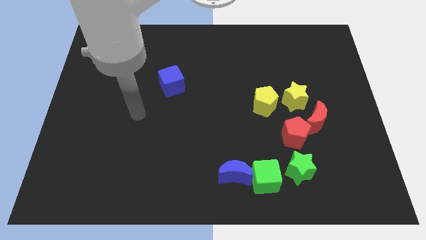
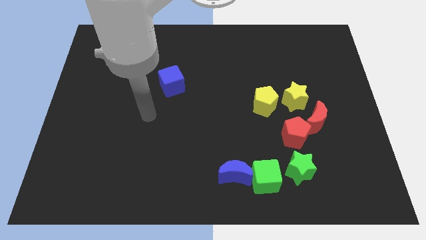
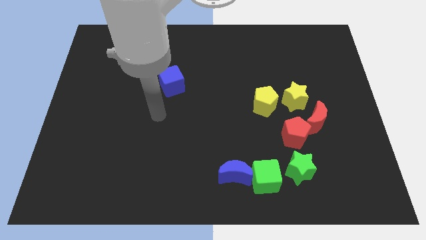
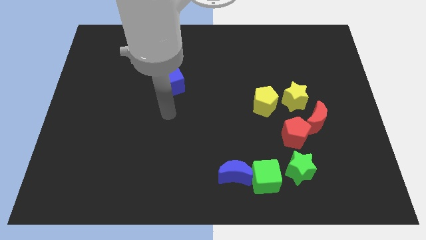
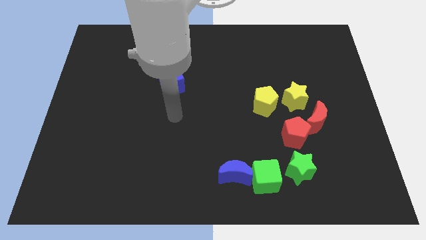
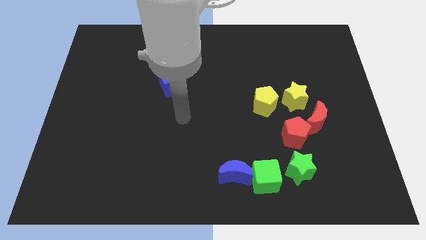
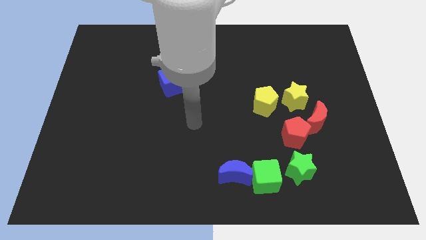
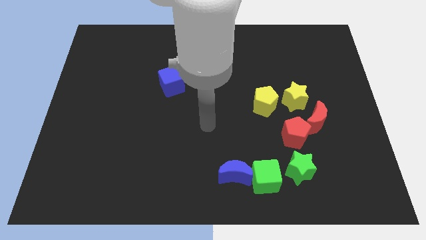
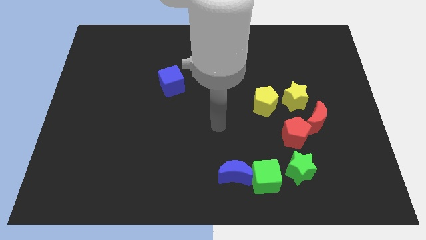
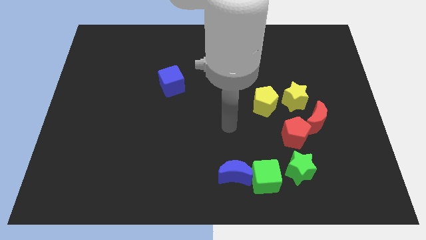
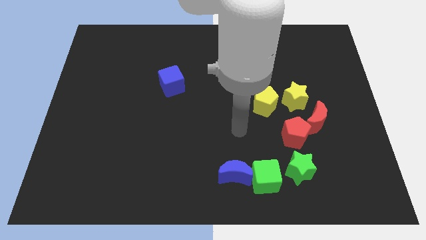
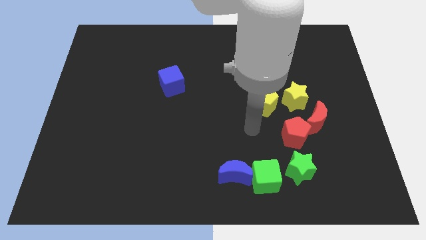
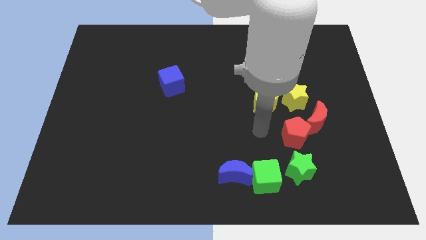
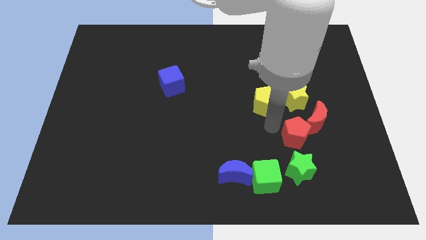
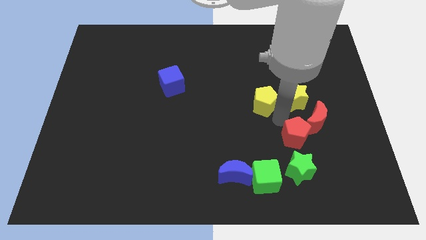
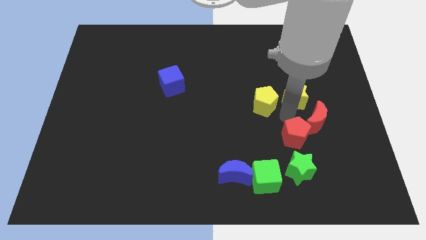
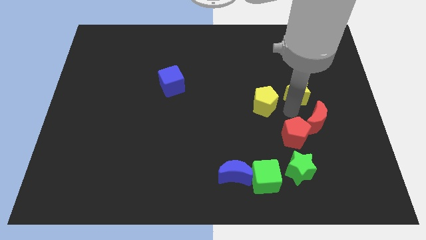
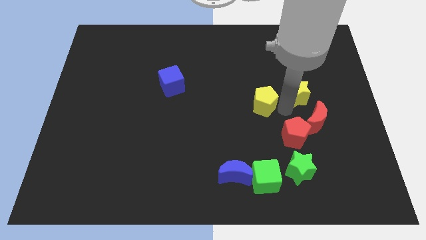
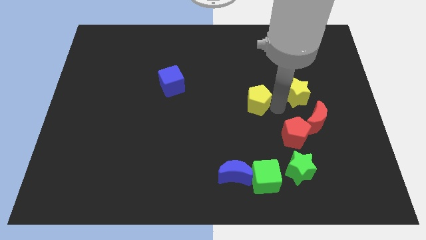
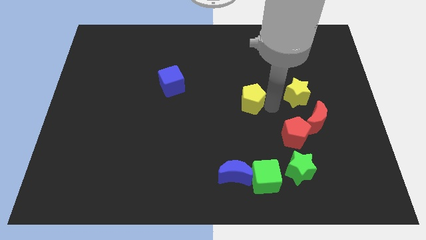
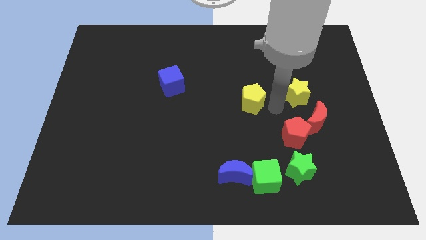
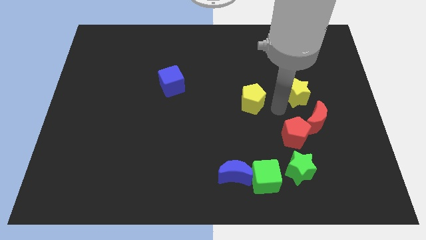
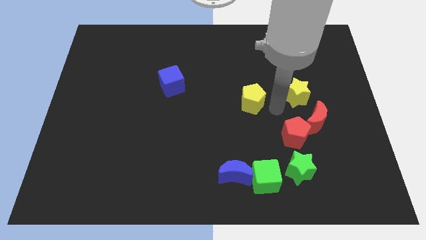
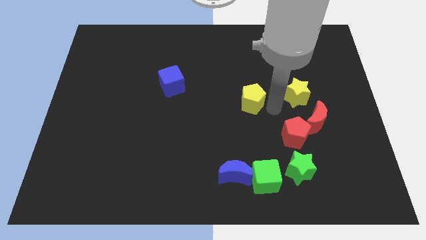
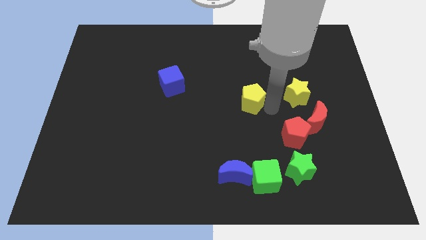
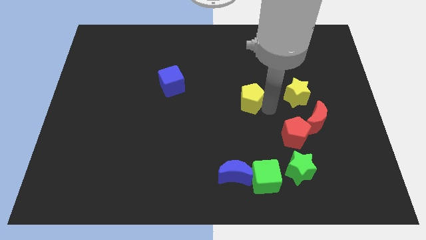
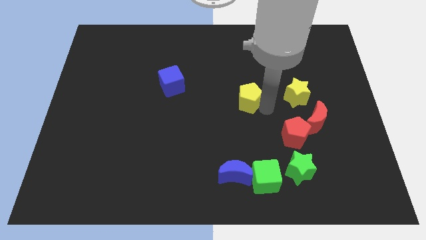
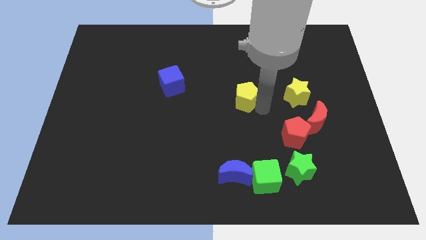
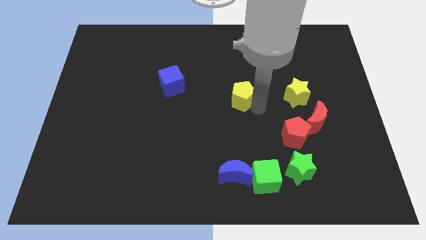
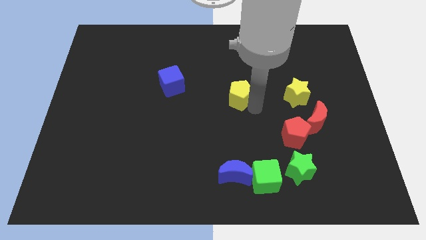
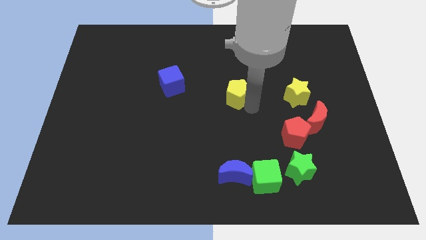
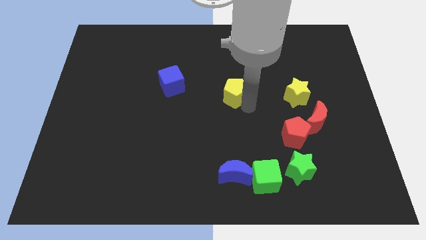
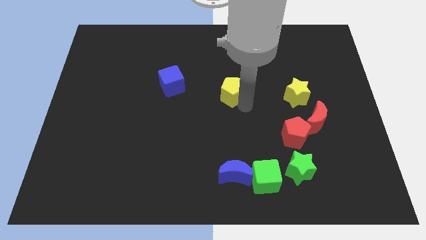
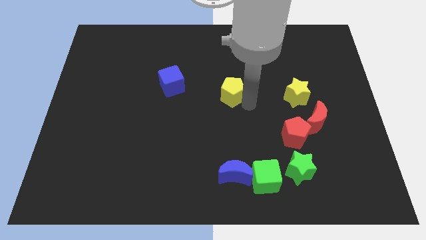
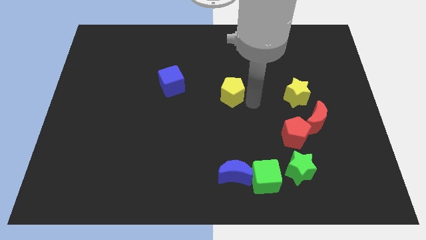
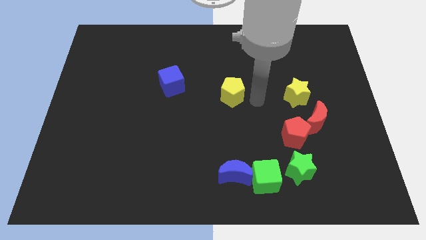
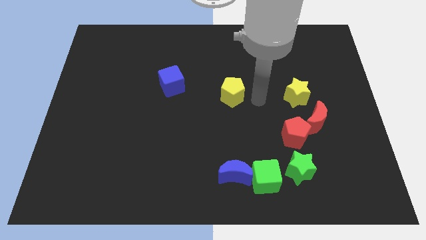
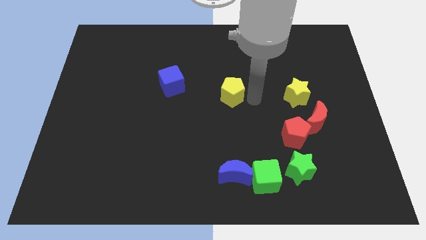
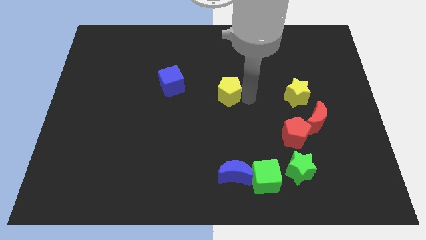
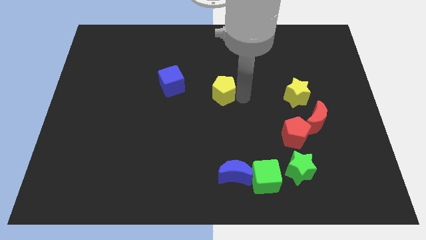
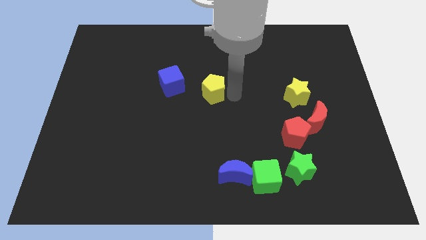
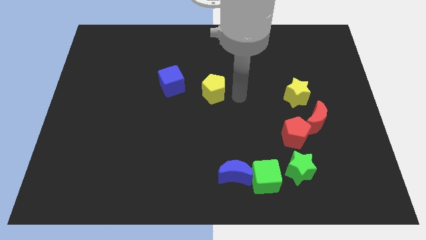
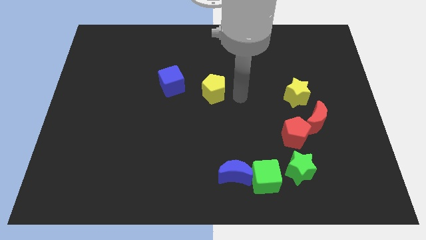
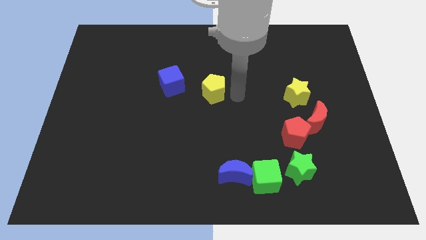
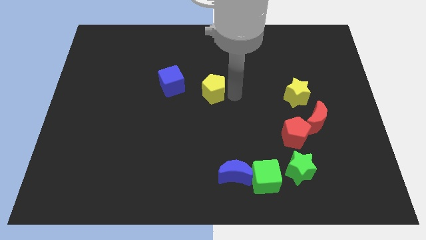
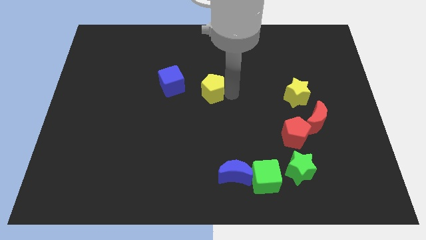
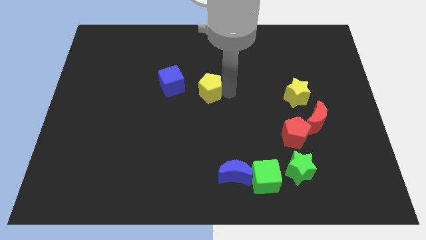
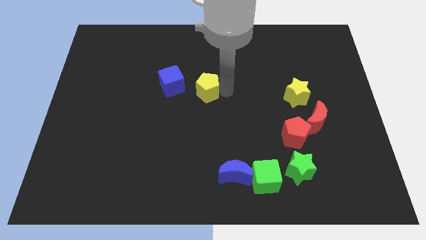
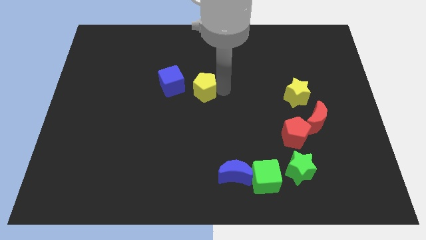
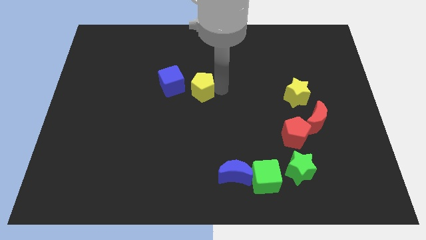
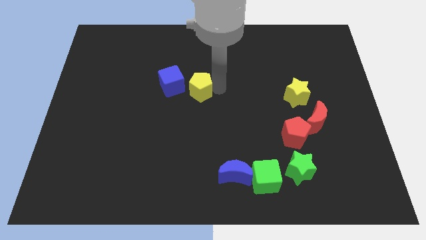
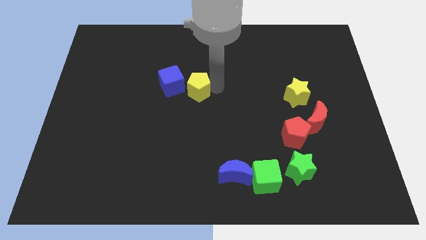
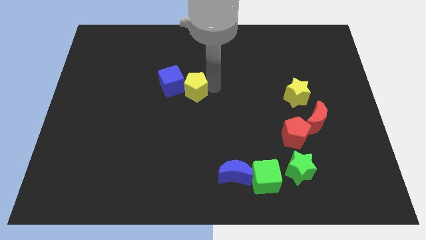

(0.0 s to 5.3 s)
push the yellow pentagon close to the blue cube

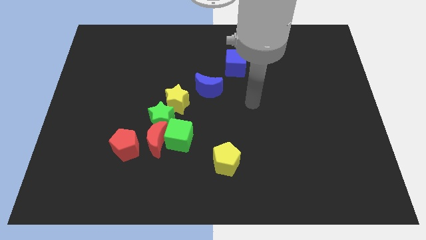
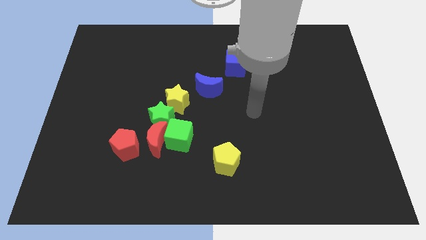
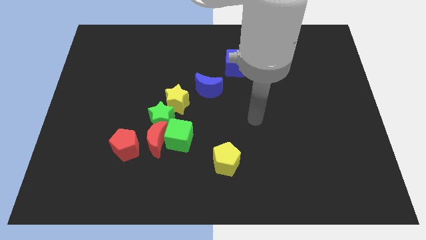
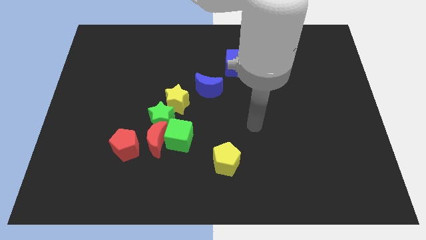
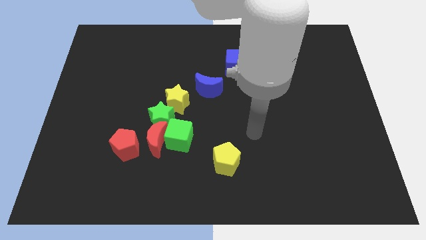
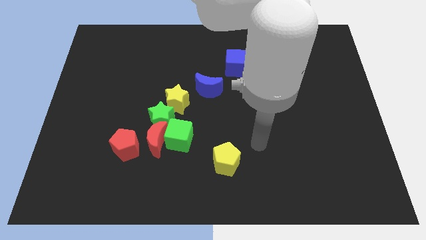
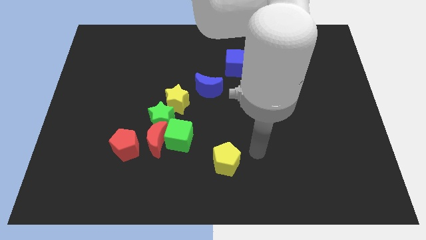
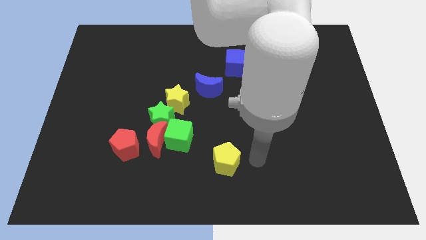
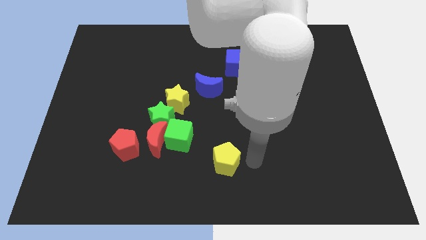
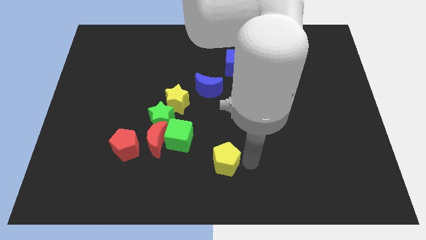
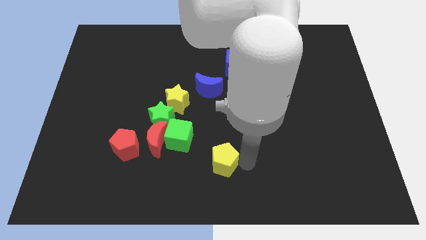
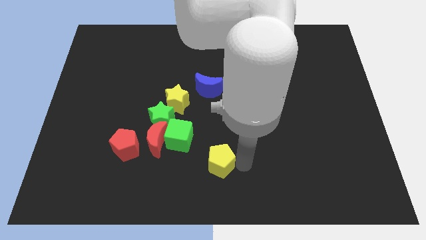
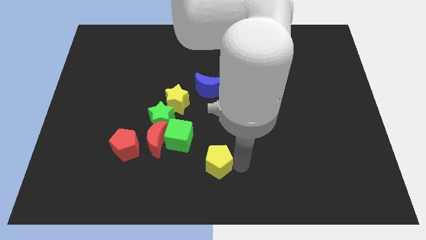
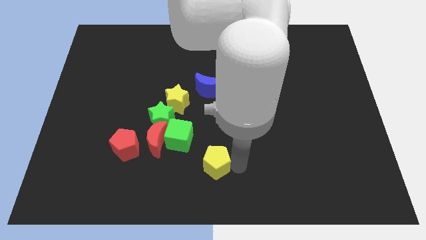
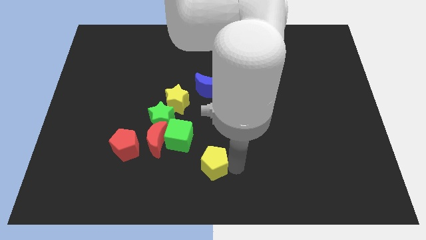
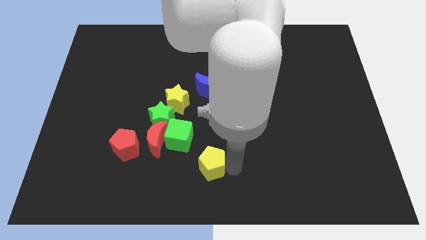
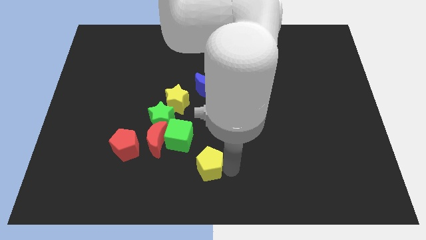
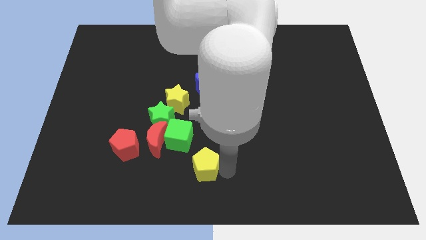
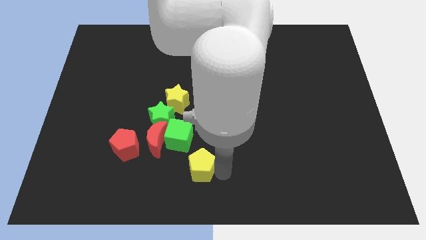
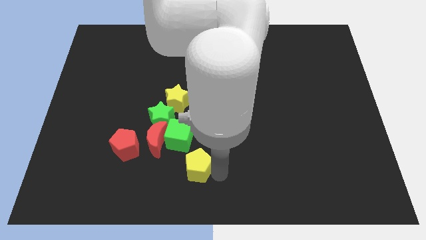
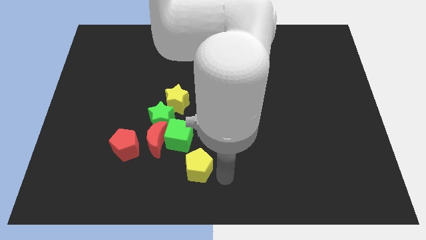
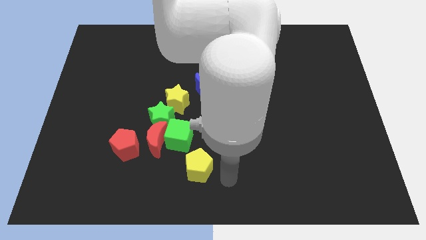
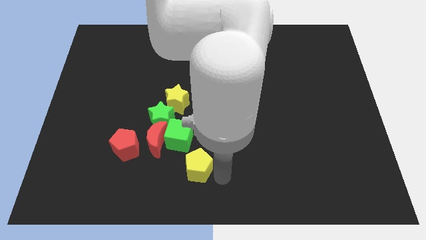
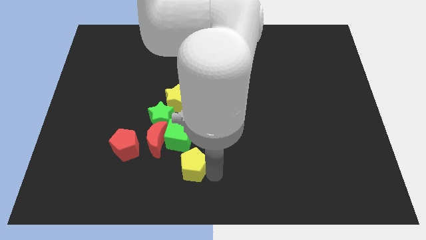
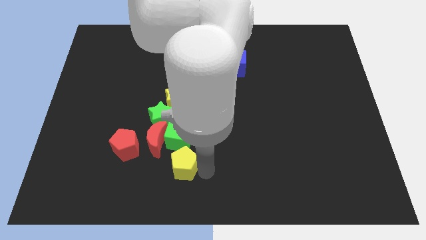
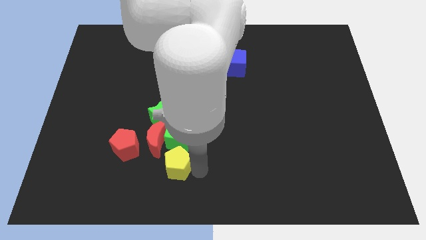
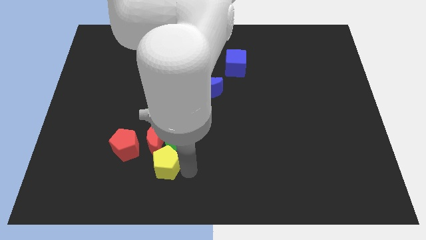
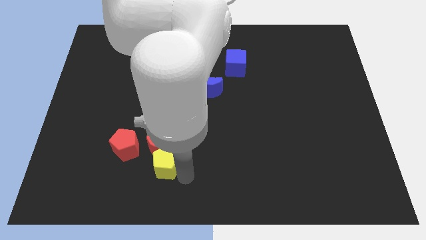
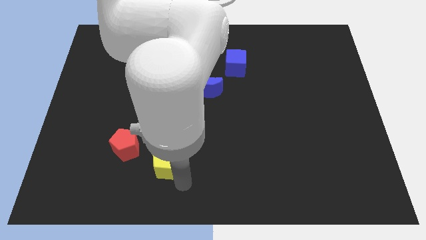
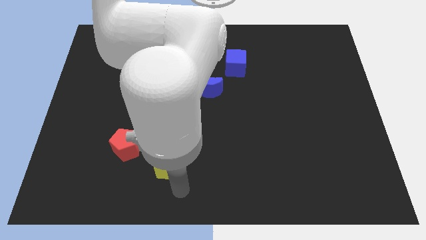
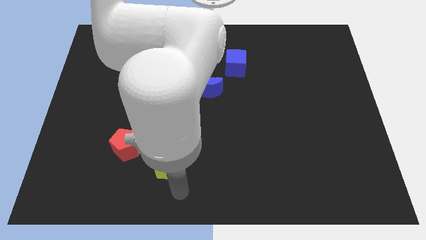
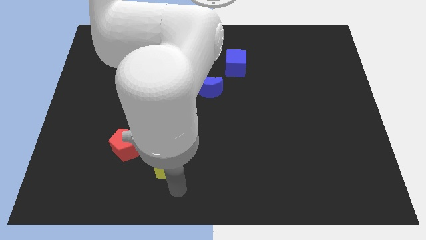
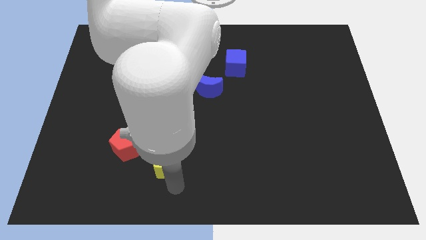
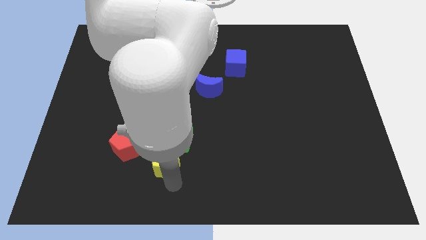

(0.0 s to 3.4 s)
slide the yellow pentagon next to the red moon
